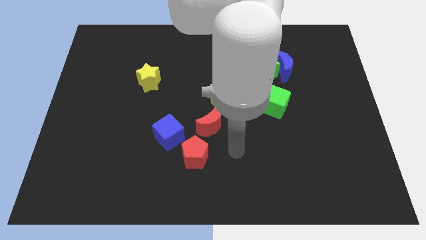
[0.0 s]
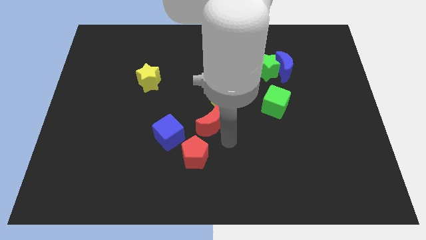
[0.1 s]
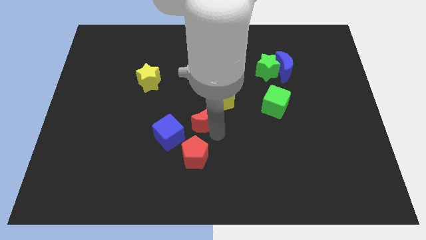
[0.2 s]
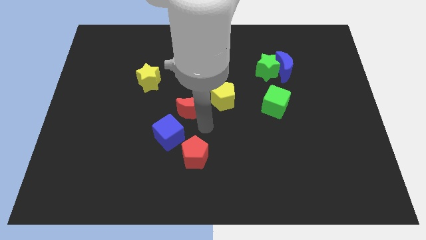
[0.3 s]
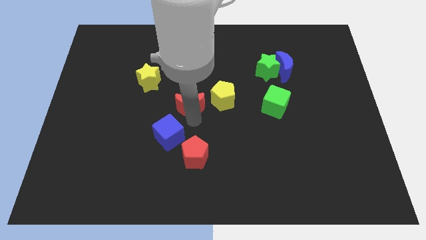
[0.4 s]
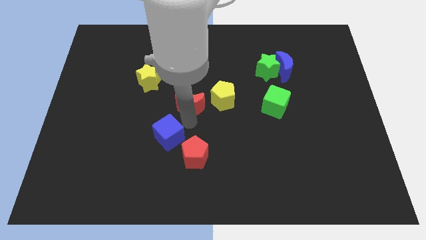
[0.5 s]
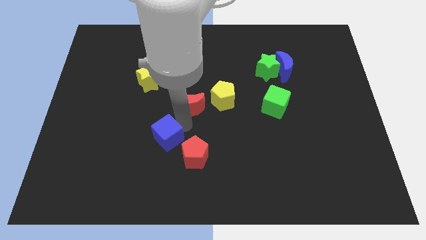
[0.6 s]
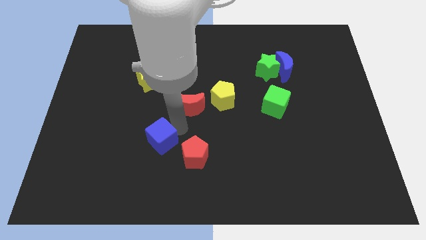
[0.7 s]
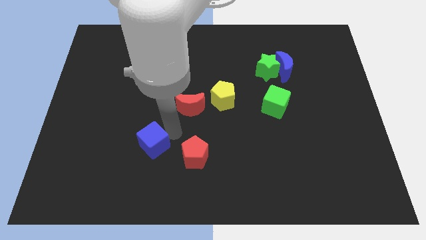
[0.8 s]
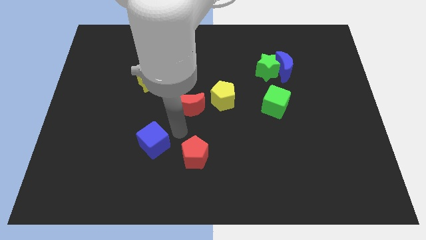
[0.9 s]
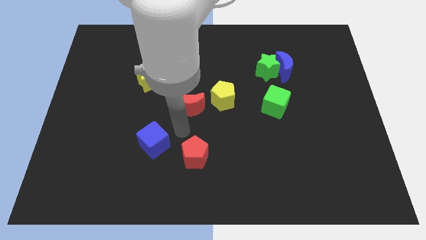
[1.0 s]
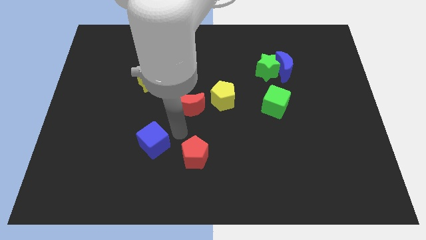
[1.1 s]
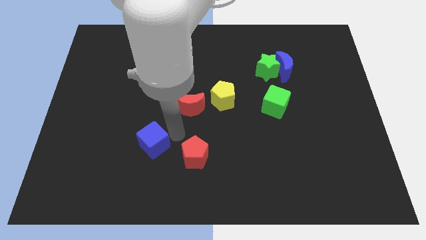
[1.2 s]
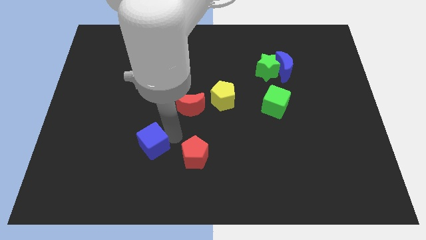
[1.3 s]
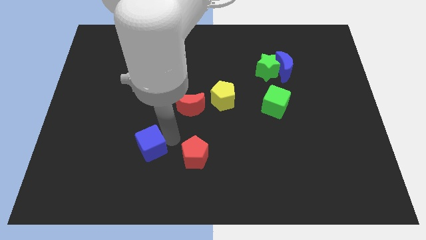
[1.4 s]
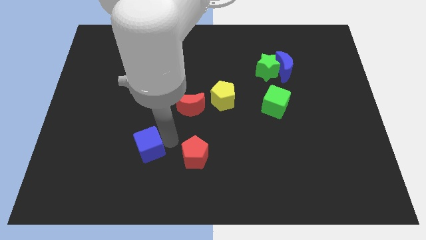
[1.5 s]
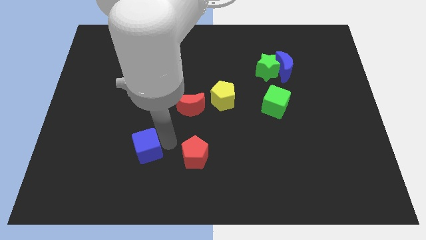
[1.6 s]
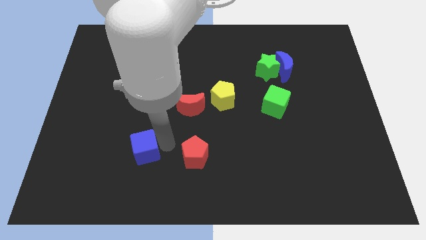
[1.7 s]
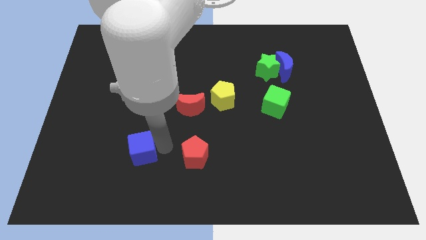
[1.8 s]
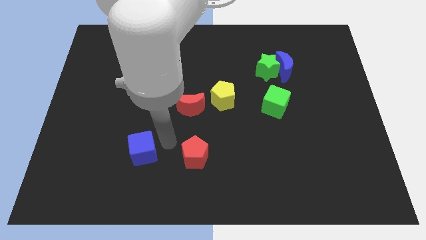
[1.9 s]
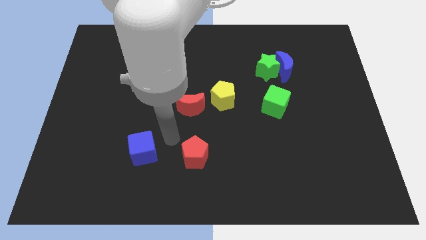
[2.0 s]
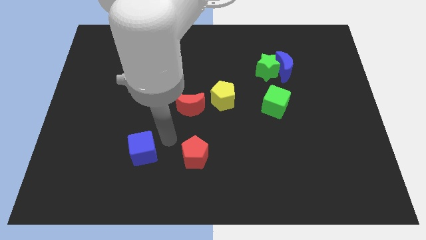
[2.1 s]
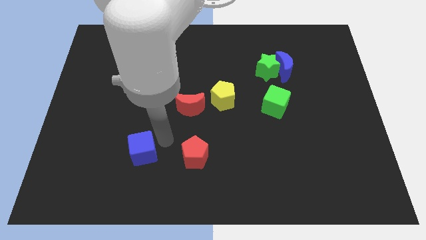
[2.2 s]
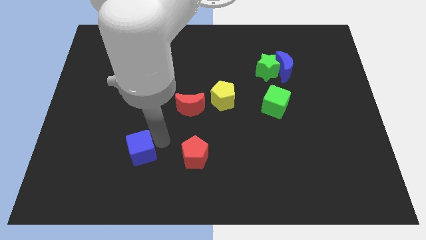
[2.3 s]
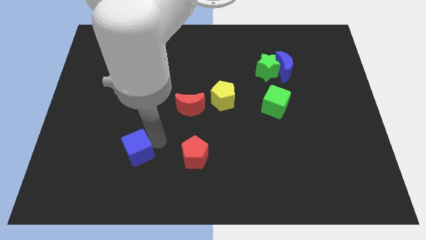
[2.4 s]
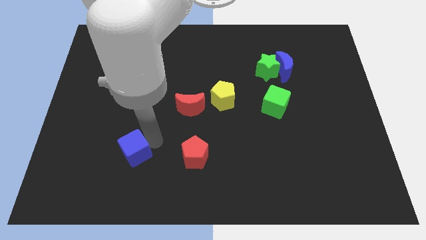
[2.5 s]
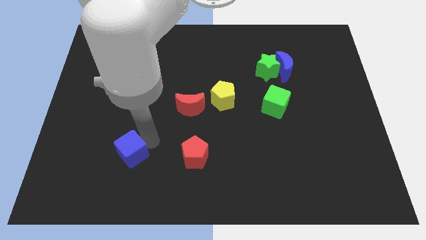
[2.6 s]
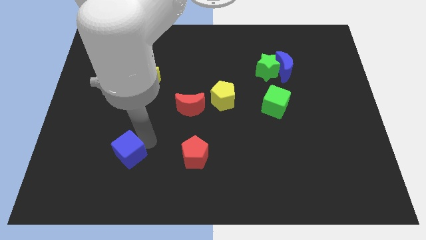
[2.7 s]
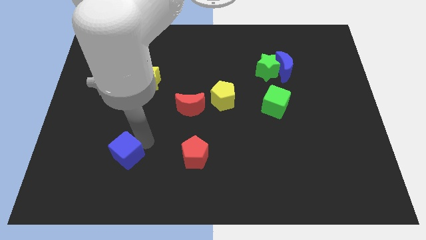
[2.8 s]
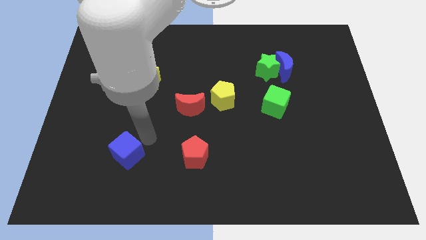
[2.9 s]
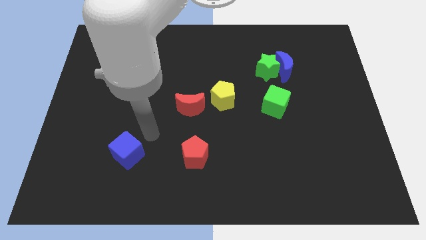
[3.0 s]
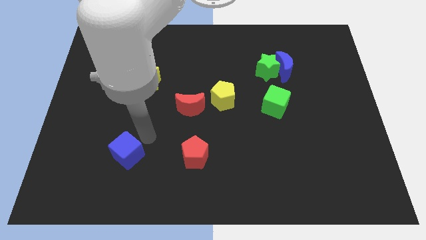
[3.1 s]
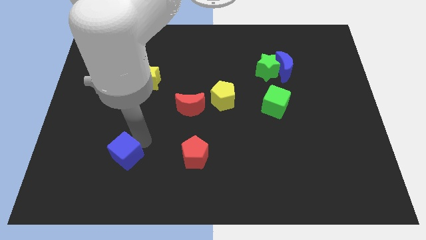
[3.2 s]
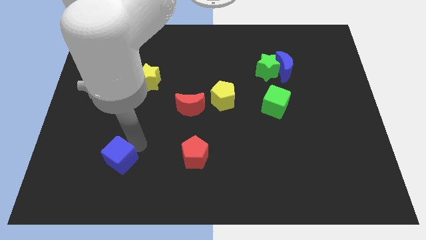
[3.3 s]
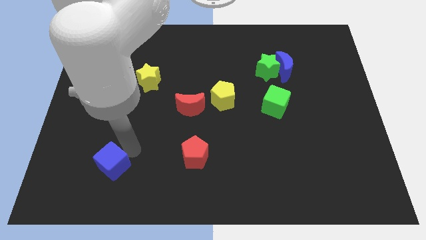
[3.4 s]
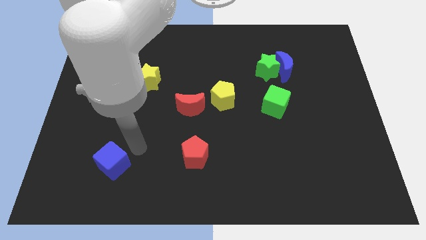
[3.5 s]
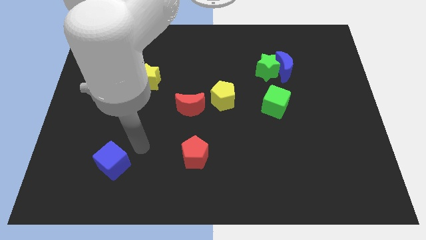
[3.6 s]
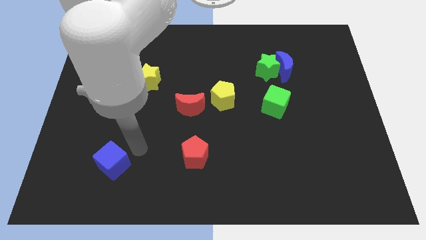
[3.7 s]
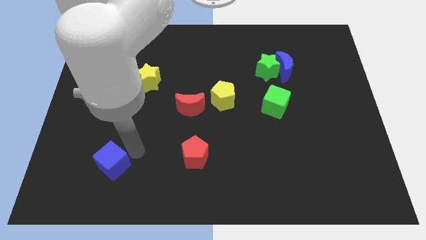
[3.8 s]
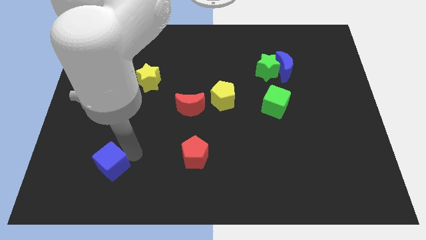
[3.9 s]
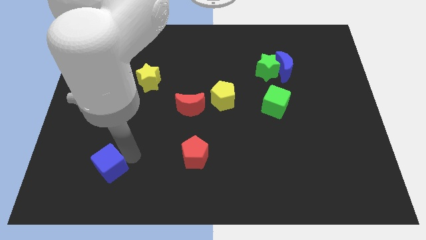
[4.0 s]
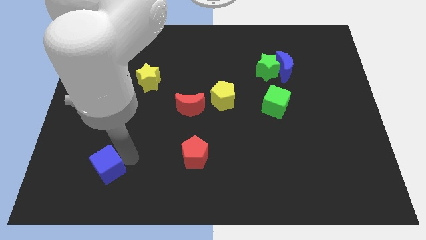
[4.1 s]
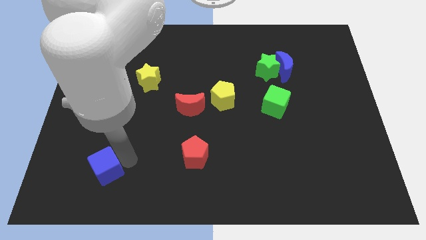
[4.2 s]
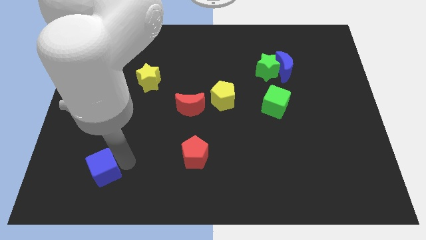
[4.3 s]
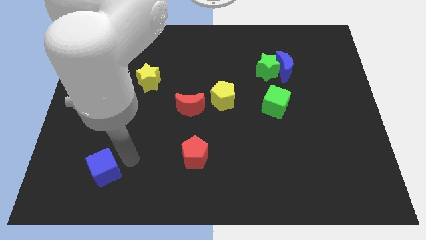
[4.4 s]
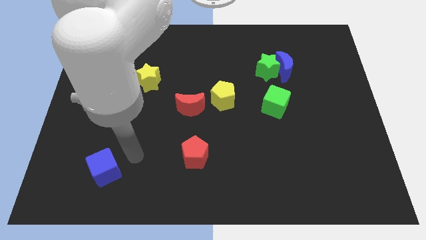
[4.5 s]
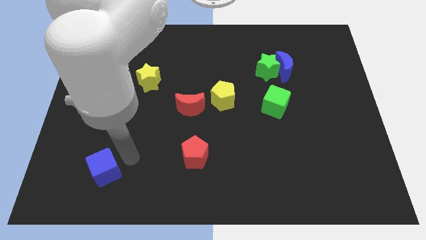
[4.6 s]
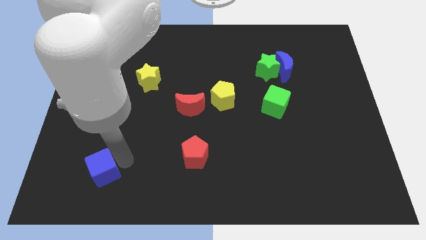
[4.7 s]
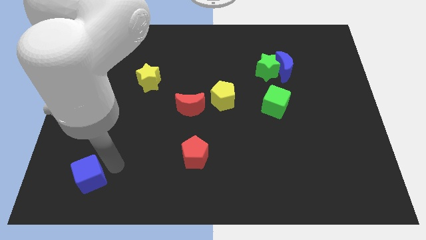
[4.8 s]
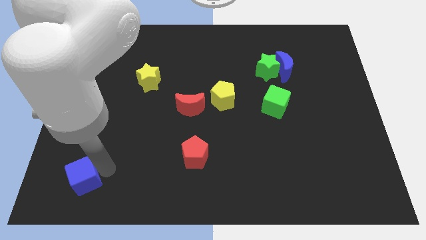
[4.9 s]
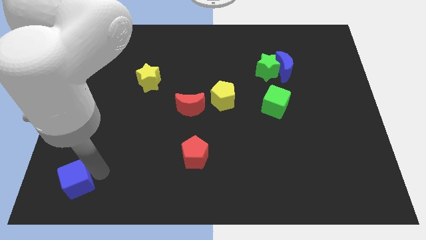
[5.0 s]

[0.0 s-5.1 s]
move the blue cube to the bottom left

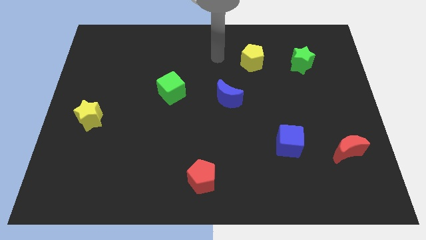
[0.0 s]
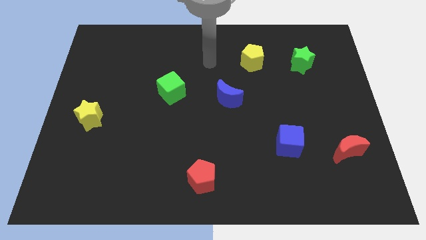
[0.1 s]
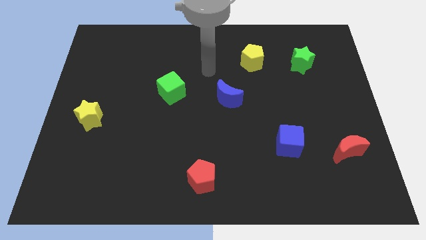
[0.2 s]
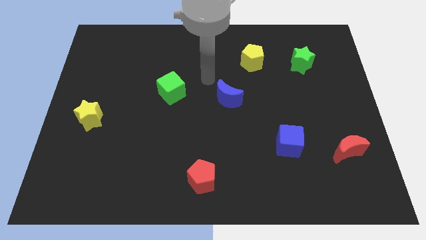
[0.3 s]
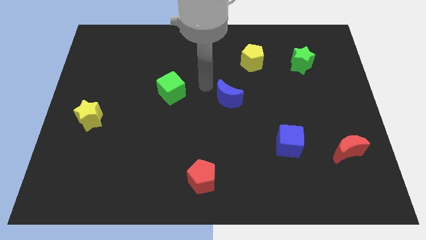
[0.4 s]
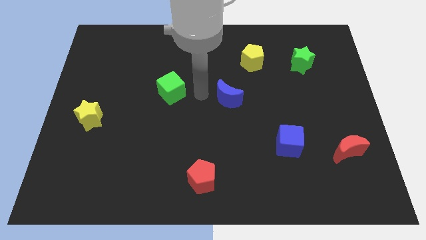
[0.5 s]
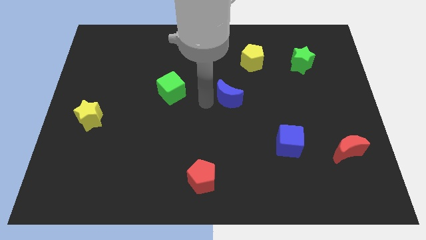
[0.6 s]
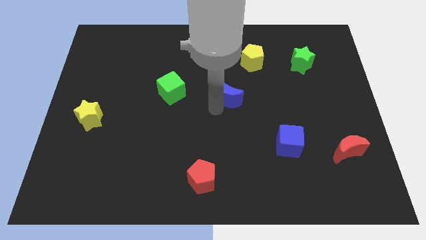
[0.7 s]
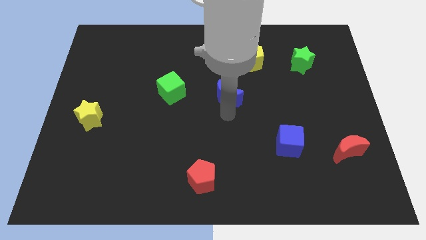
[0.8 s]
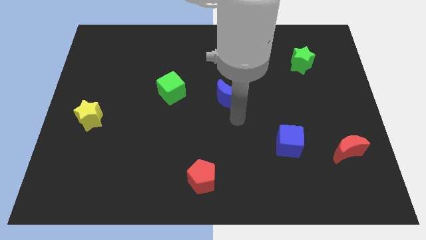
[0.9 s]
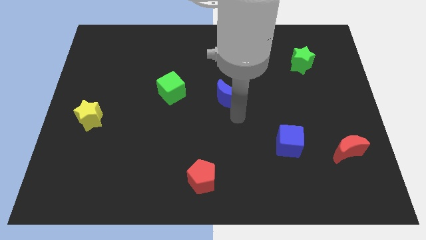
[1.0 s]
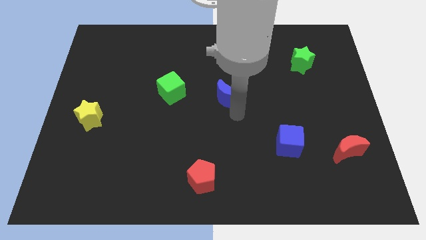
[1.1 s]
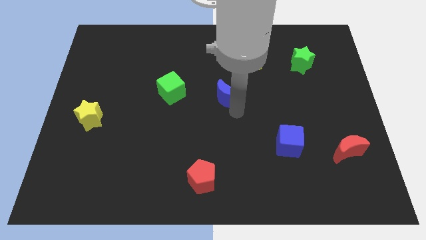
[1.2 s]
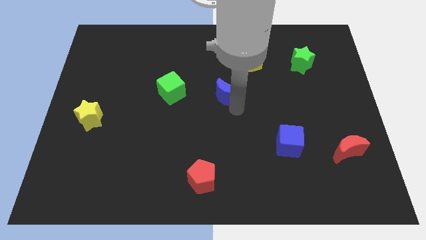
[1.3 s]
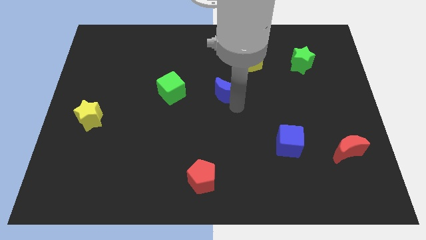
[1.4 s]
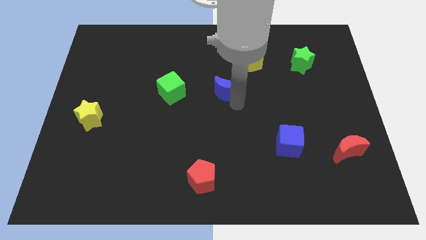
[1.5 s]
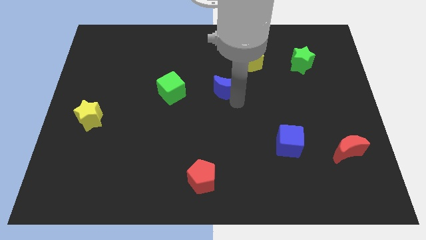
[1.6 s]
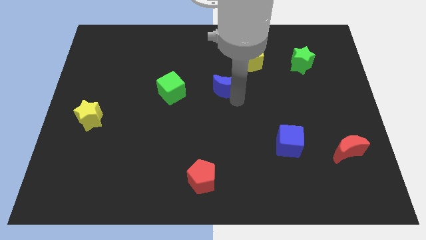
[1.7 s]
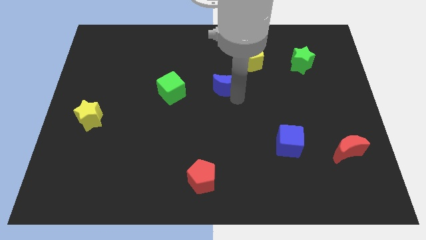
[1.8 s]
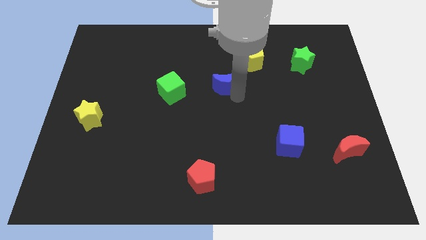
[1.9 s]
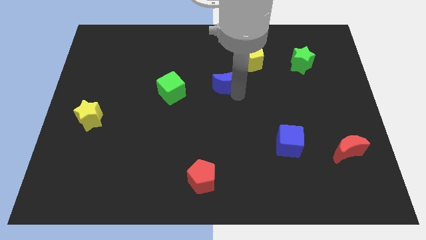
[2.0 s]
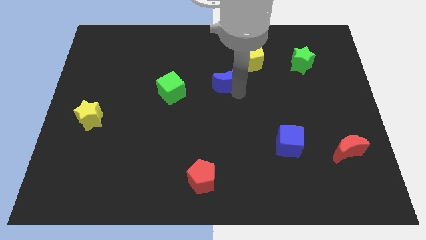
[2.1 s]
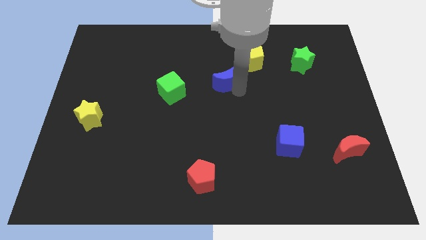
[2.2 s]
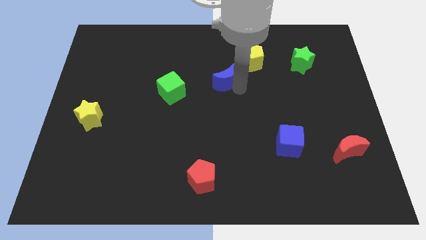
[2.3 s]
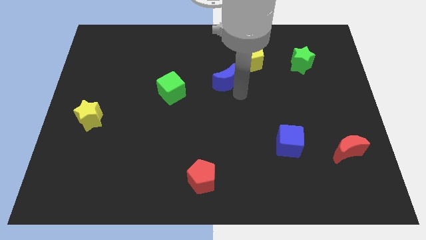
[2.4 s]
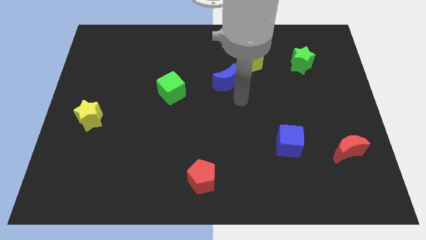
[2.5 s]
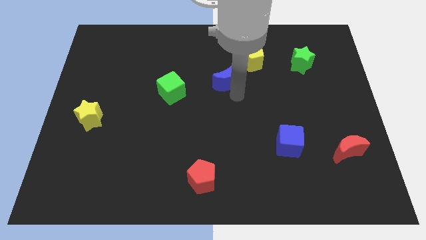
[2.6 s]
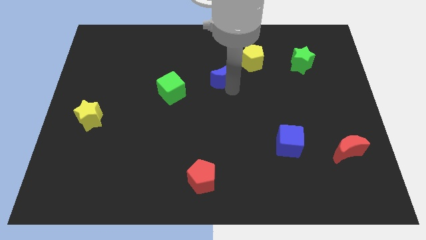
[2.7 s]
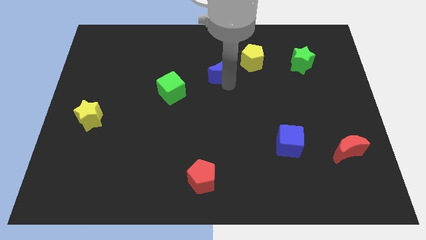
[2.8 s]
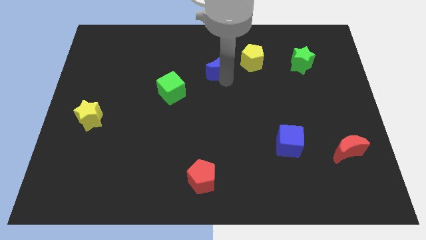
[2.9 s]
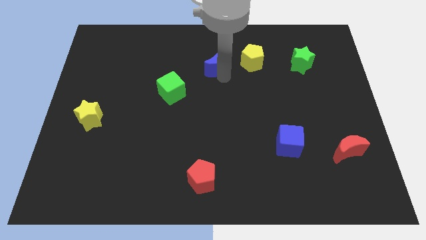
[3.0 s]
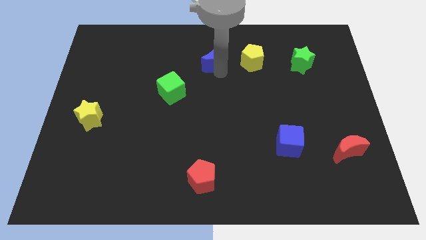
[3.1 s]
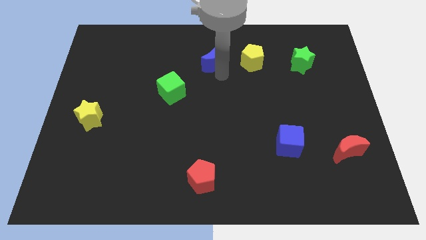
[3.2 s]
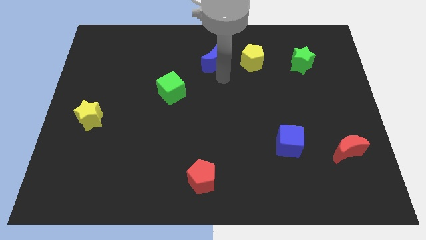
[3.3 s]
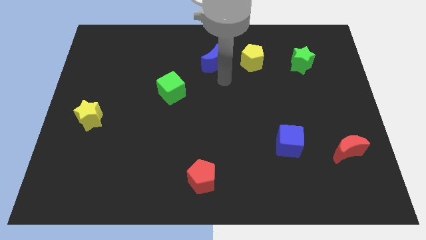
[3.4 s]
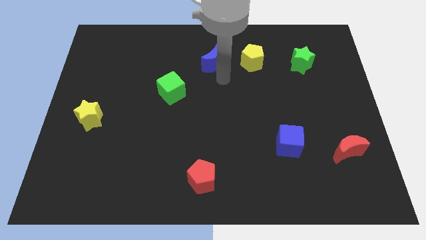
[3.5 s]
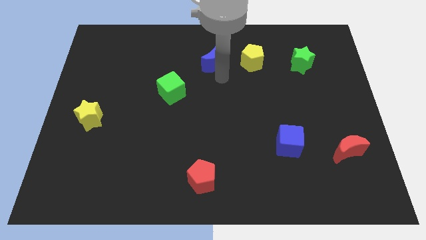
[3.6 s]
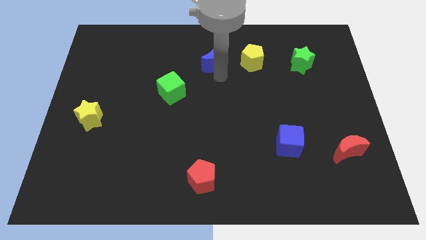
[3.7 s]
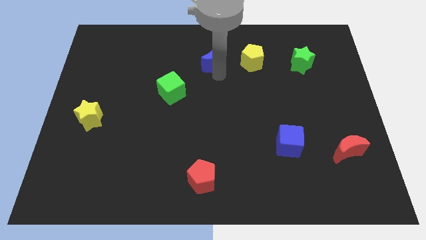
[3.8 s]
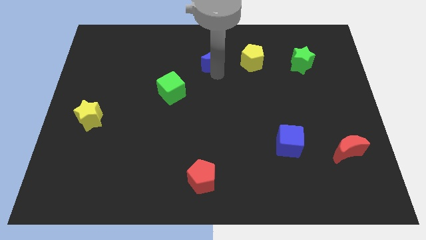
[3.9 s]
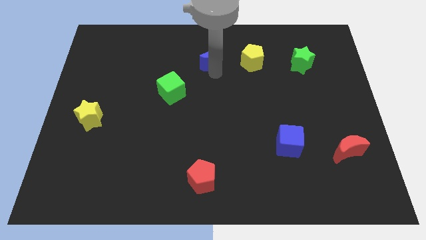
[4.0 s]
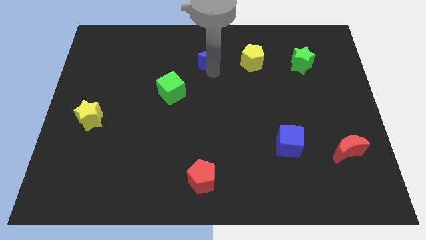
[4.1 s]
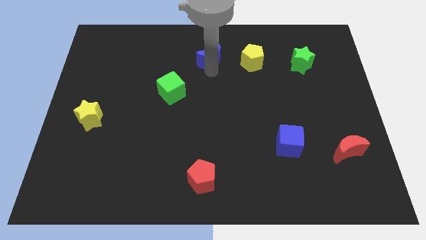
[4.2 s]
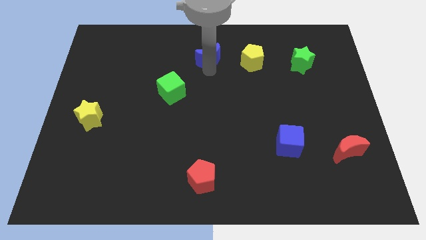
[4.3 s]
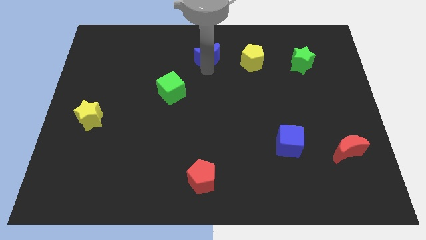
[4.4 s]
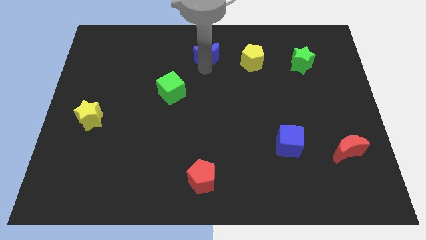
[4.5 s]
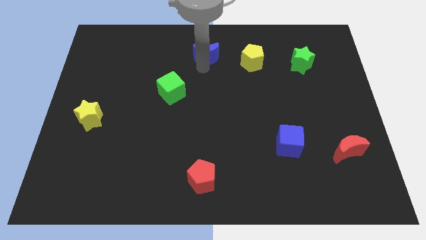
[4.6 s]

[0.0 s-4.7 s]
put the blue moon to the towards your base
